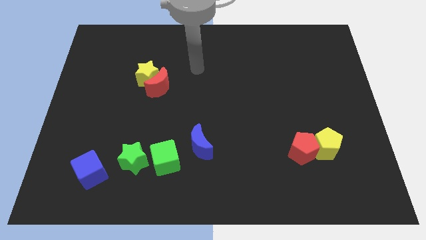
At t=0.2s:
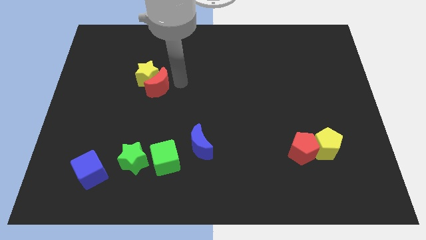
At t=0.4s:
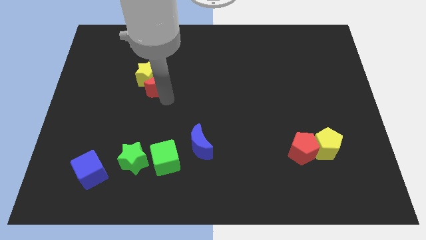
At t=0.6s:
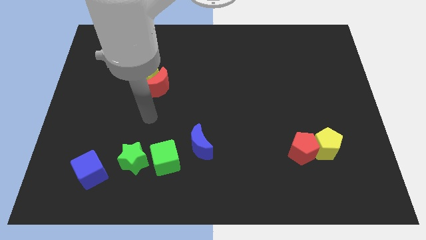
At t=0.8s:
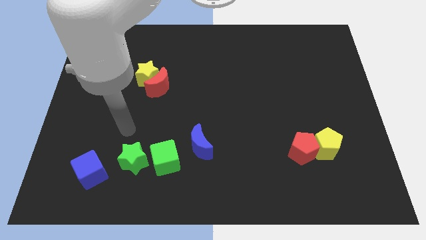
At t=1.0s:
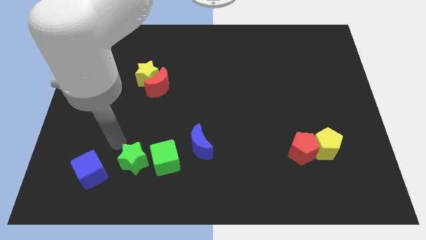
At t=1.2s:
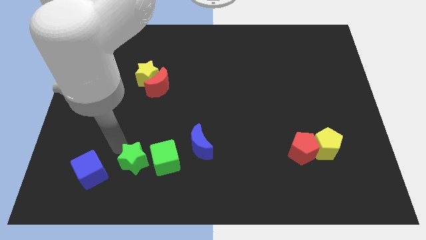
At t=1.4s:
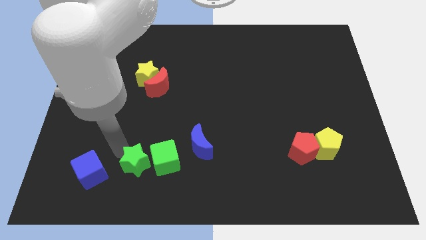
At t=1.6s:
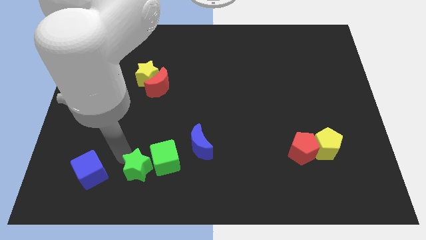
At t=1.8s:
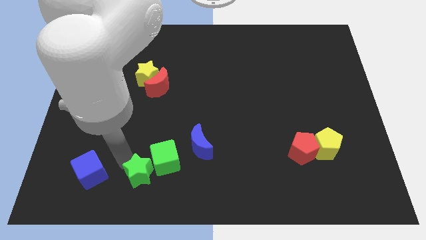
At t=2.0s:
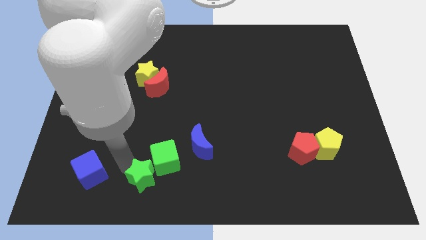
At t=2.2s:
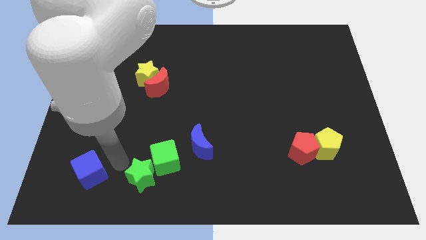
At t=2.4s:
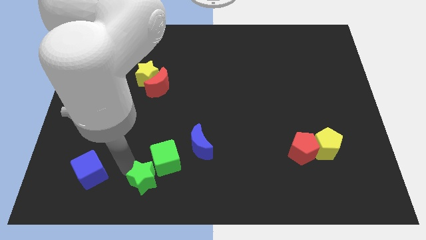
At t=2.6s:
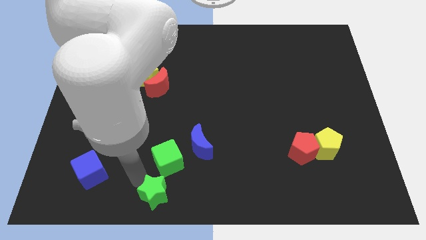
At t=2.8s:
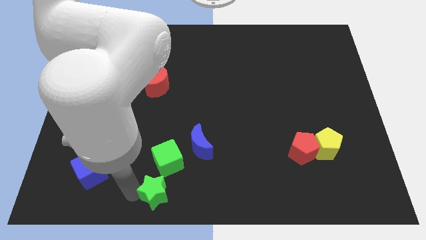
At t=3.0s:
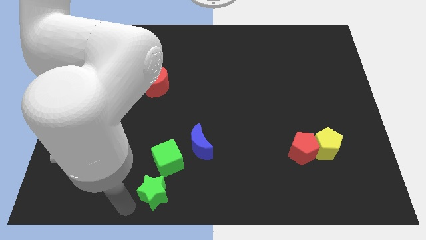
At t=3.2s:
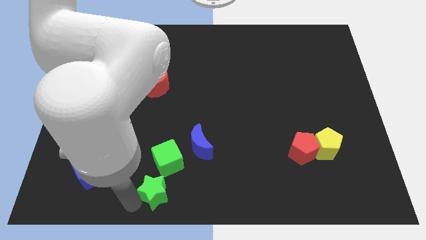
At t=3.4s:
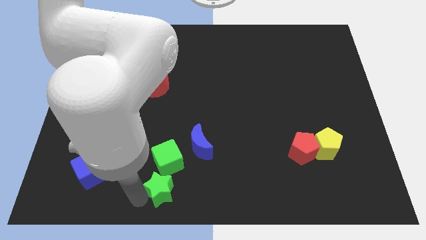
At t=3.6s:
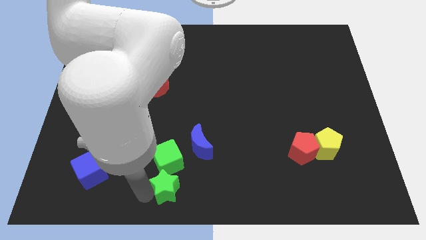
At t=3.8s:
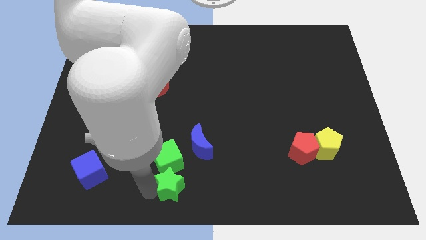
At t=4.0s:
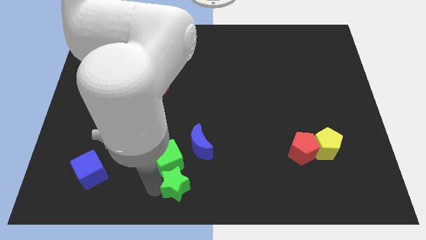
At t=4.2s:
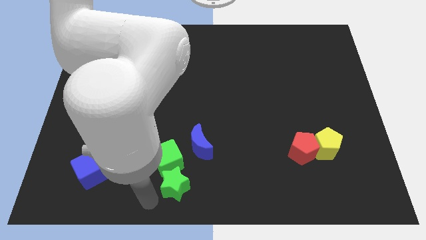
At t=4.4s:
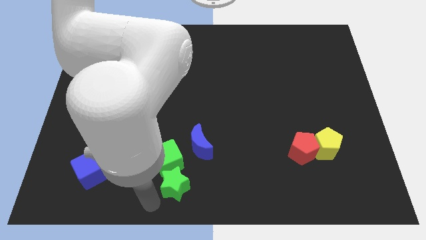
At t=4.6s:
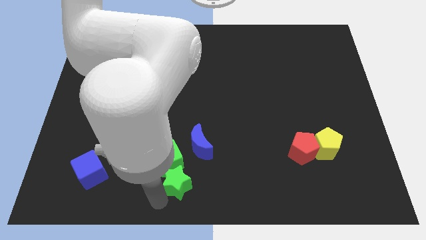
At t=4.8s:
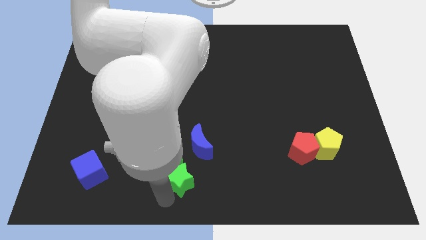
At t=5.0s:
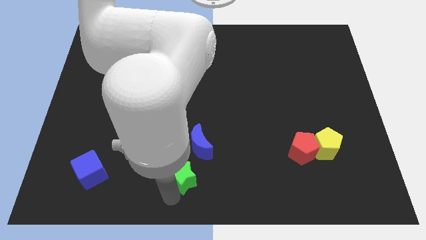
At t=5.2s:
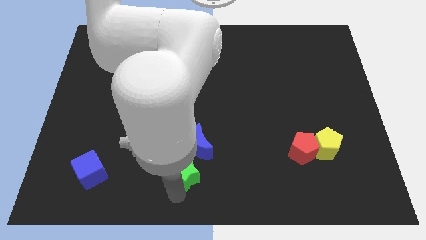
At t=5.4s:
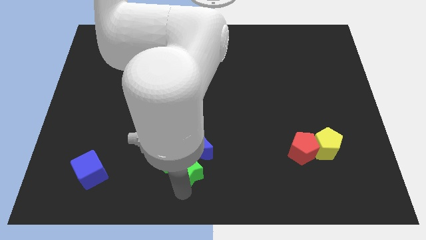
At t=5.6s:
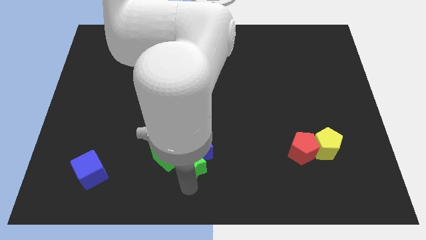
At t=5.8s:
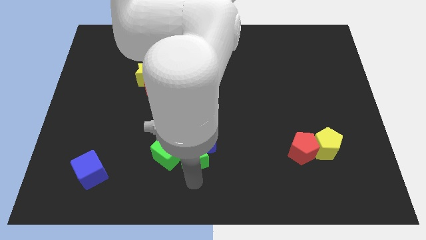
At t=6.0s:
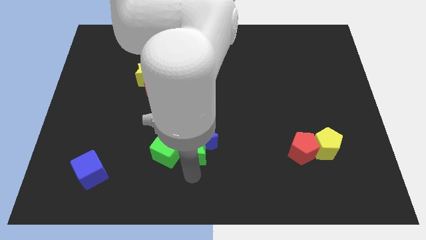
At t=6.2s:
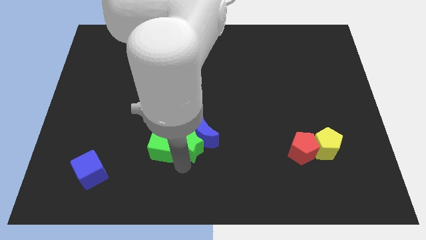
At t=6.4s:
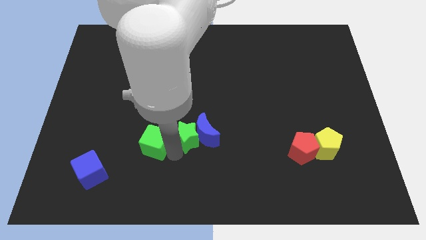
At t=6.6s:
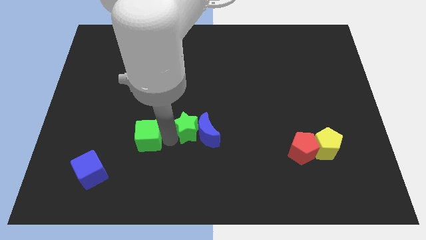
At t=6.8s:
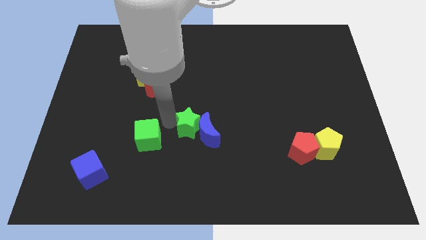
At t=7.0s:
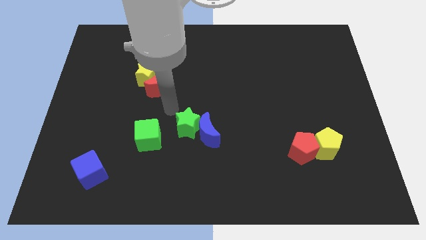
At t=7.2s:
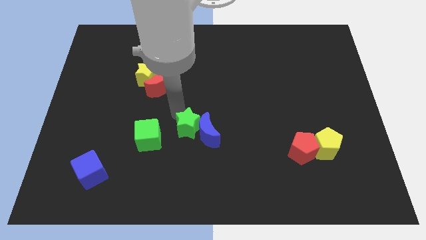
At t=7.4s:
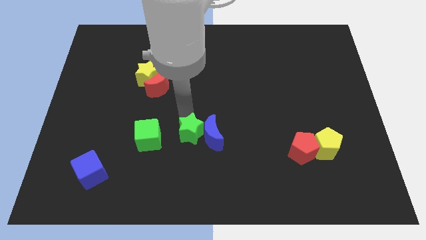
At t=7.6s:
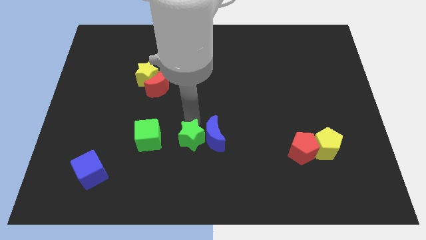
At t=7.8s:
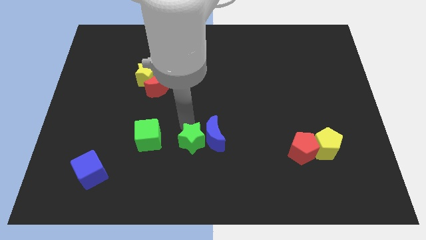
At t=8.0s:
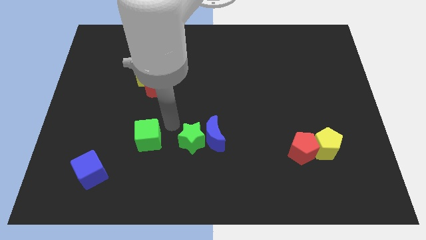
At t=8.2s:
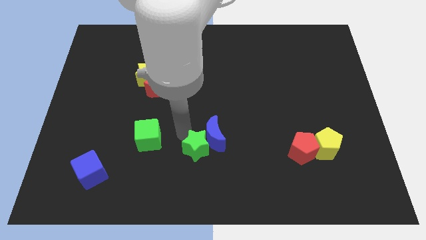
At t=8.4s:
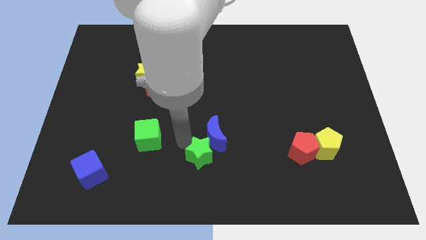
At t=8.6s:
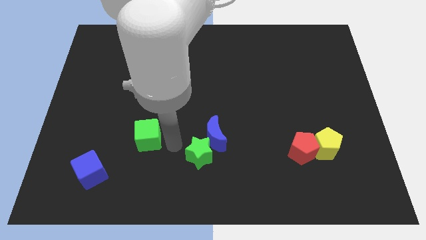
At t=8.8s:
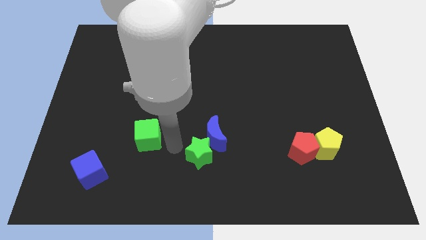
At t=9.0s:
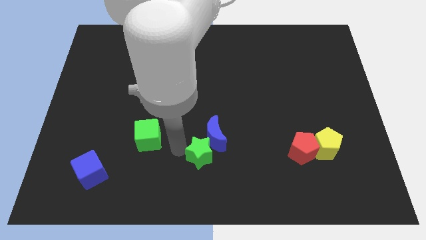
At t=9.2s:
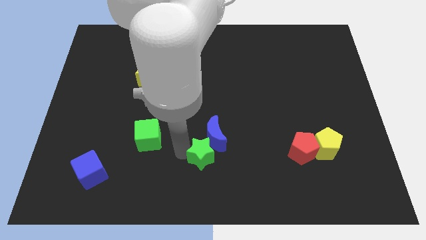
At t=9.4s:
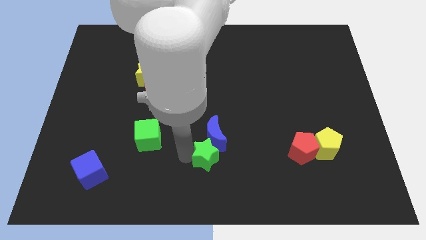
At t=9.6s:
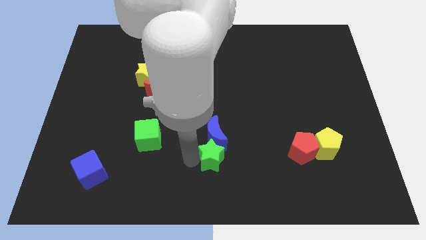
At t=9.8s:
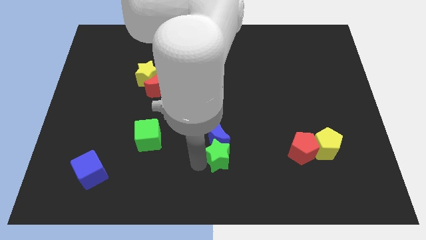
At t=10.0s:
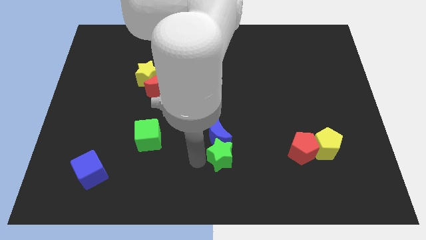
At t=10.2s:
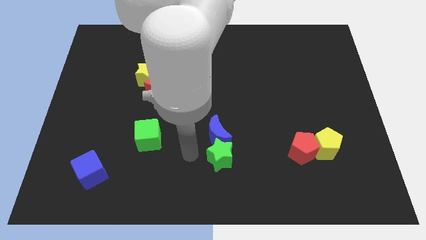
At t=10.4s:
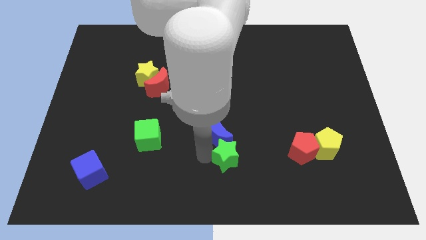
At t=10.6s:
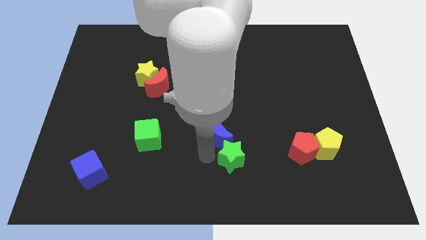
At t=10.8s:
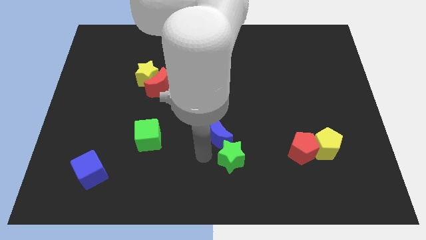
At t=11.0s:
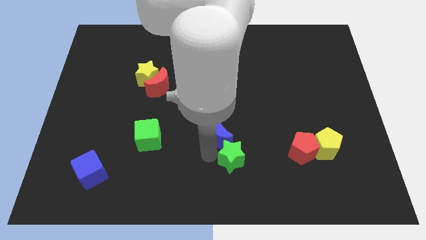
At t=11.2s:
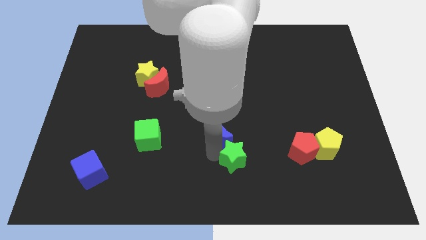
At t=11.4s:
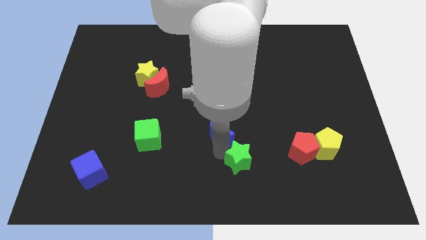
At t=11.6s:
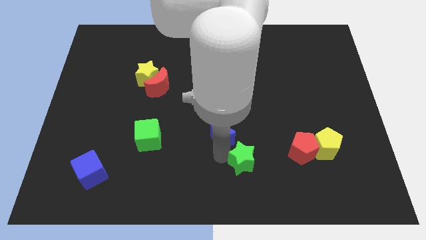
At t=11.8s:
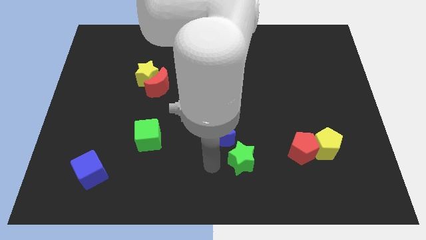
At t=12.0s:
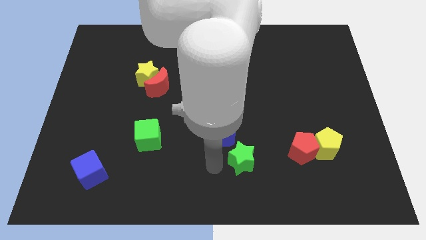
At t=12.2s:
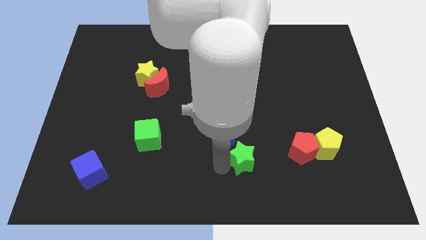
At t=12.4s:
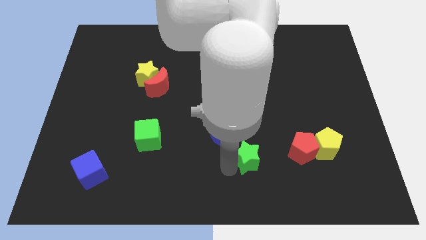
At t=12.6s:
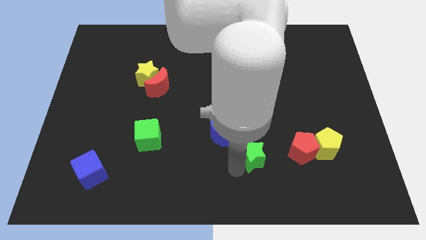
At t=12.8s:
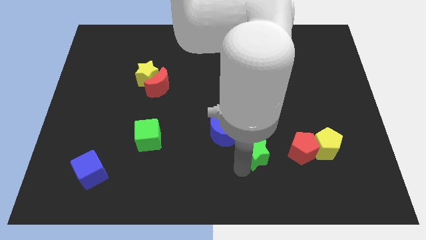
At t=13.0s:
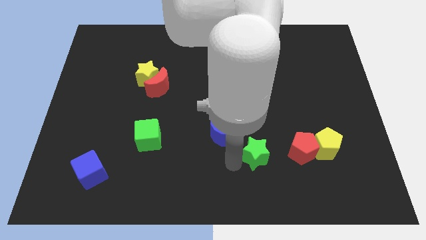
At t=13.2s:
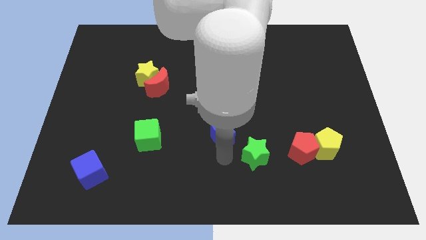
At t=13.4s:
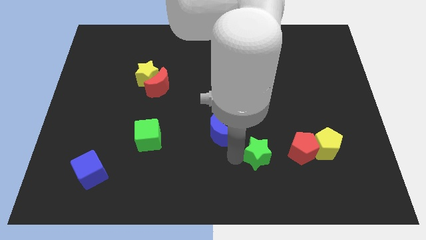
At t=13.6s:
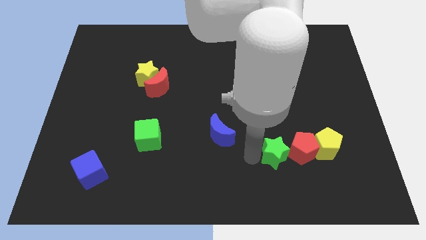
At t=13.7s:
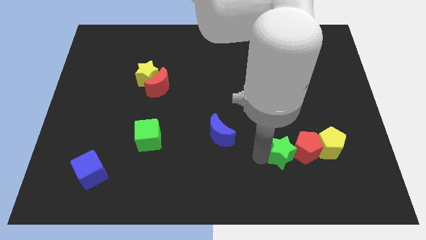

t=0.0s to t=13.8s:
move the green star towards the red pentagon
